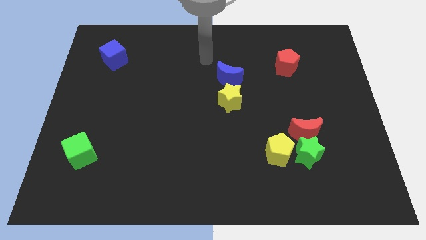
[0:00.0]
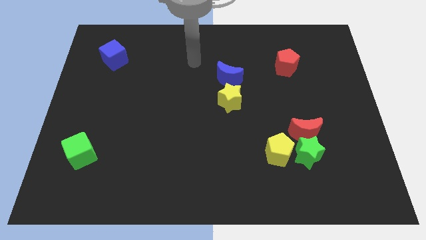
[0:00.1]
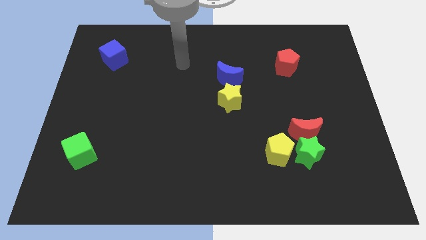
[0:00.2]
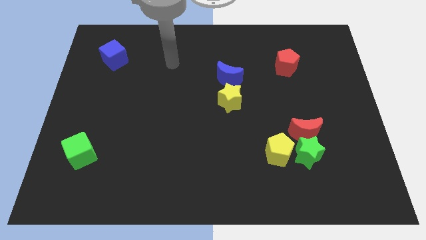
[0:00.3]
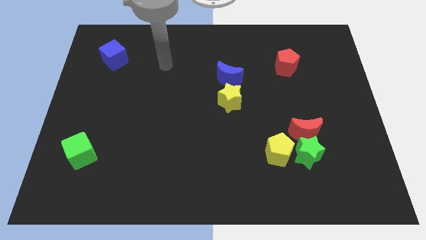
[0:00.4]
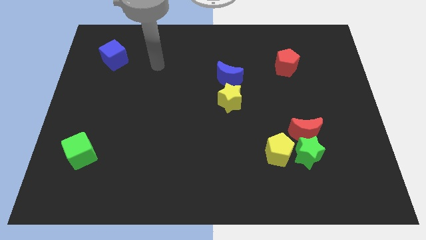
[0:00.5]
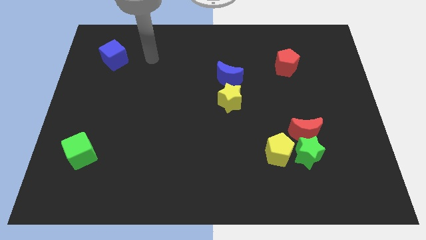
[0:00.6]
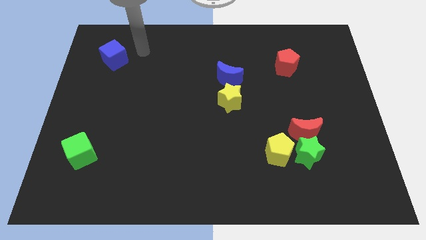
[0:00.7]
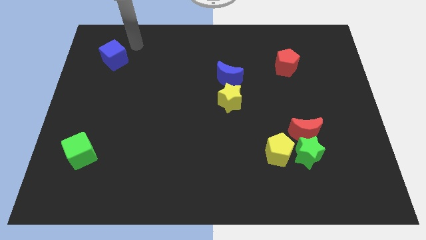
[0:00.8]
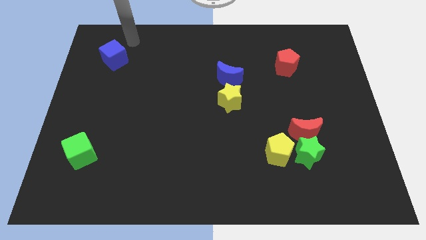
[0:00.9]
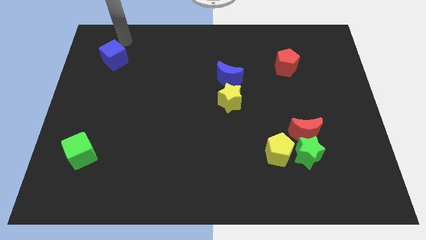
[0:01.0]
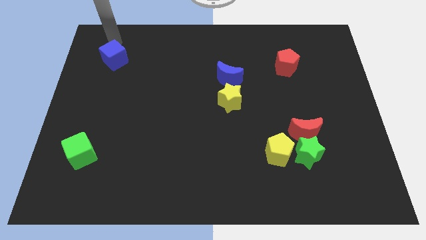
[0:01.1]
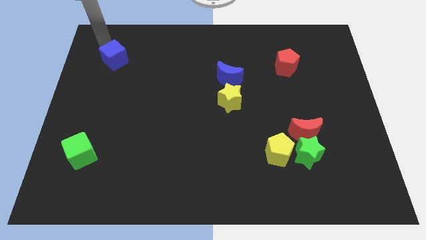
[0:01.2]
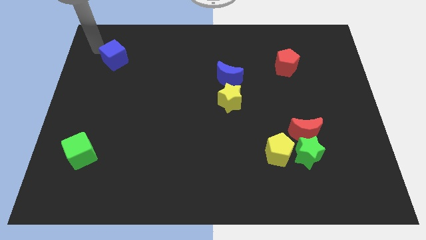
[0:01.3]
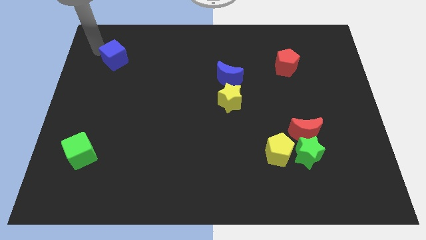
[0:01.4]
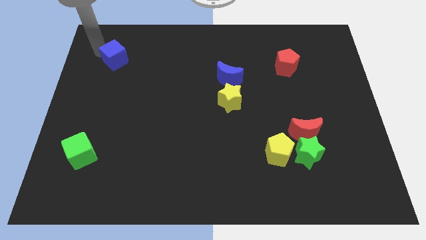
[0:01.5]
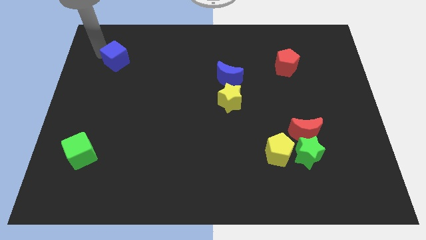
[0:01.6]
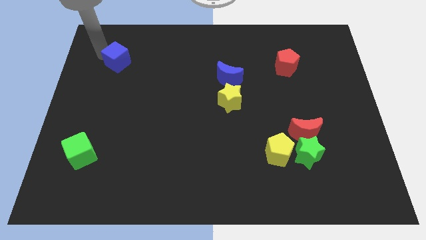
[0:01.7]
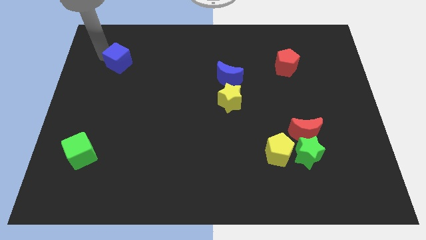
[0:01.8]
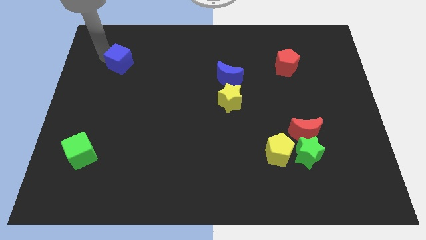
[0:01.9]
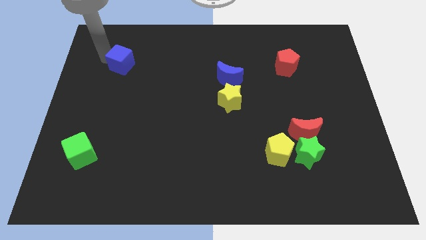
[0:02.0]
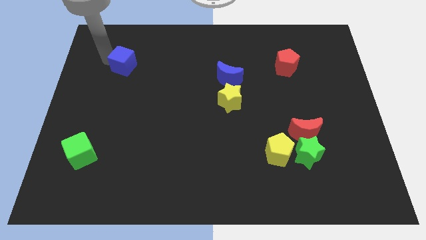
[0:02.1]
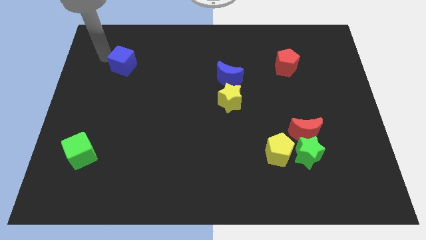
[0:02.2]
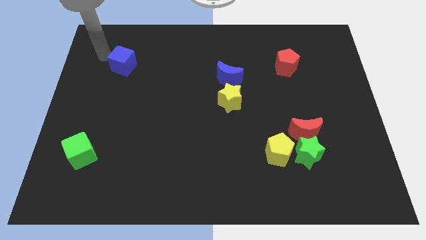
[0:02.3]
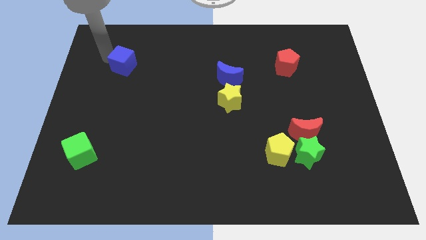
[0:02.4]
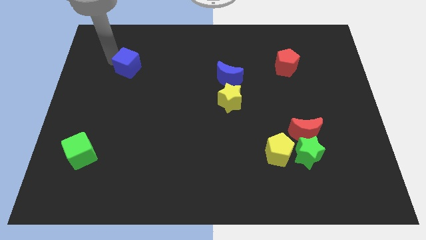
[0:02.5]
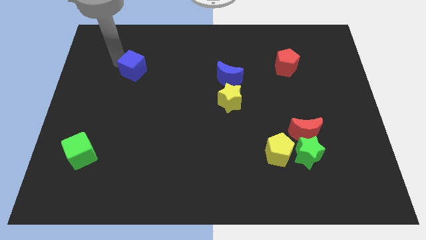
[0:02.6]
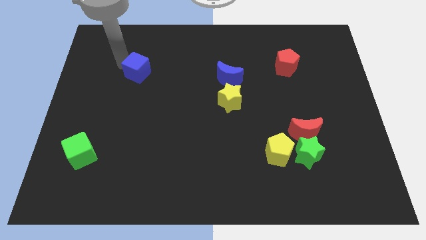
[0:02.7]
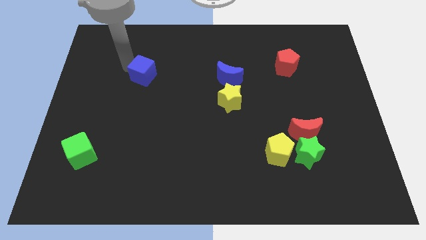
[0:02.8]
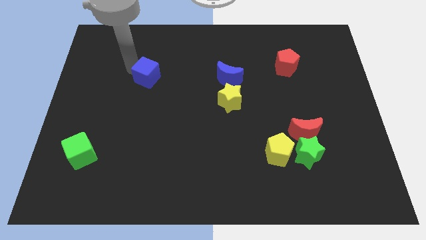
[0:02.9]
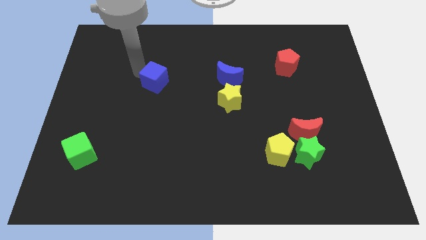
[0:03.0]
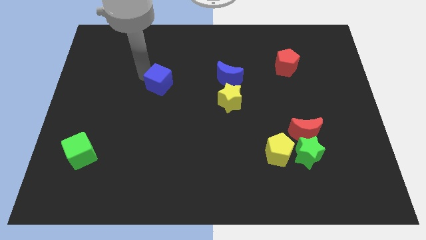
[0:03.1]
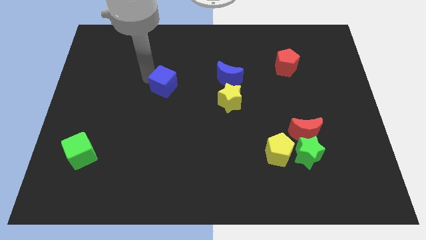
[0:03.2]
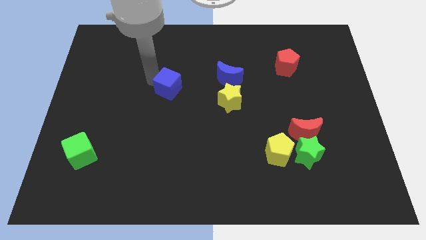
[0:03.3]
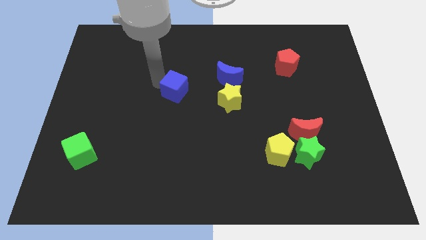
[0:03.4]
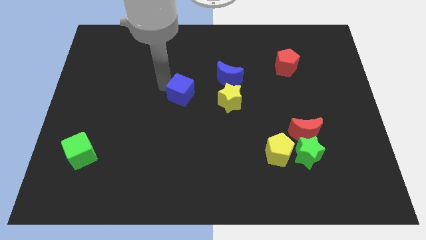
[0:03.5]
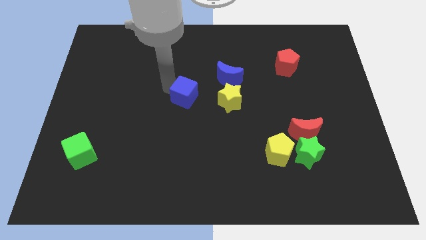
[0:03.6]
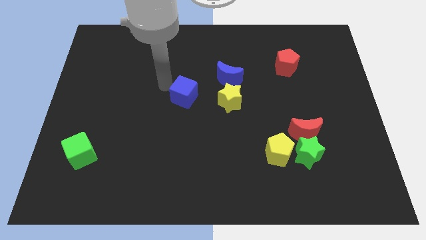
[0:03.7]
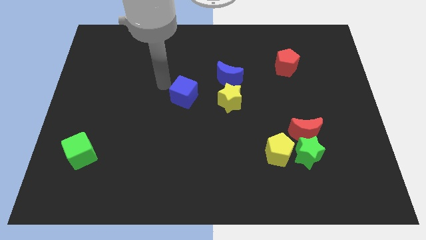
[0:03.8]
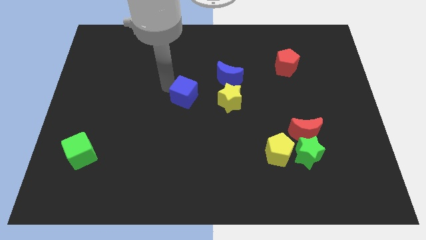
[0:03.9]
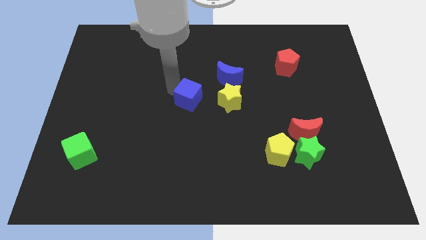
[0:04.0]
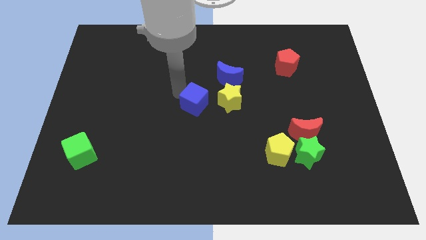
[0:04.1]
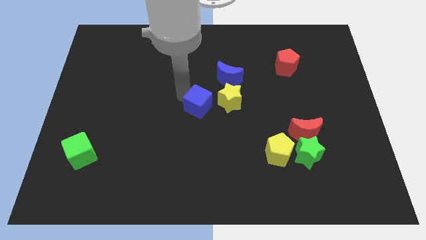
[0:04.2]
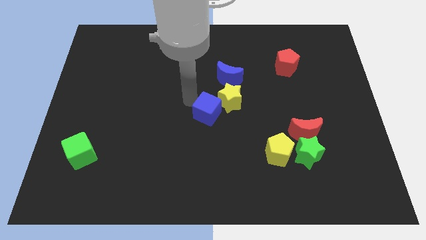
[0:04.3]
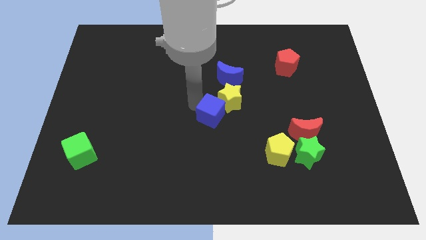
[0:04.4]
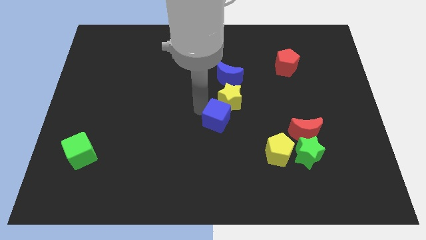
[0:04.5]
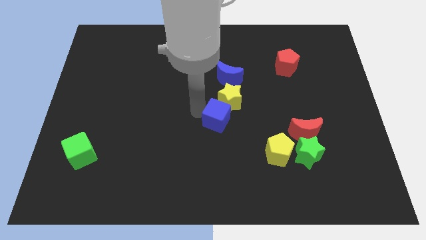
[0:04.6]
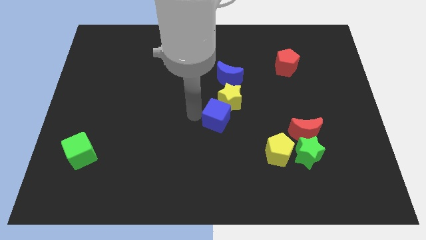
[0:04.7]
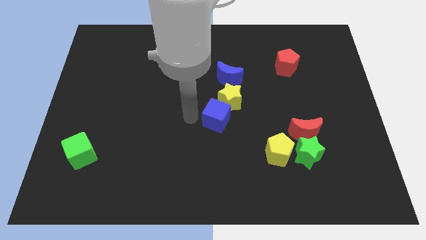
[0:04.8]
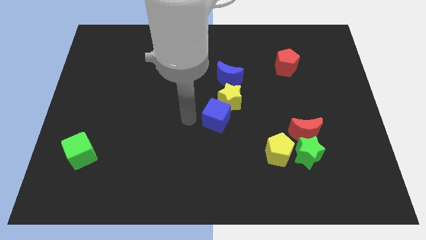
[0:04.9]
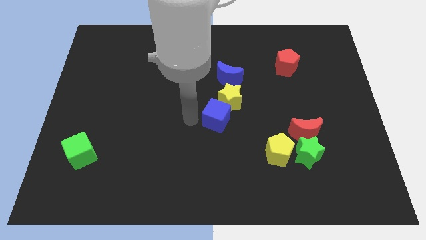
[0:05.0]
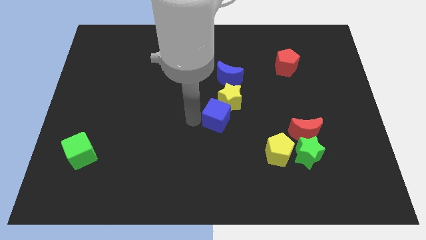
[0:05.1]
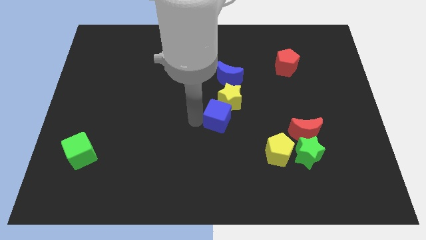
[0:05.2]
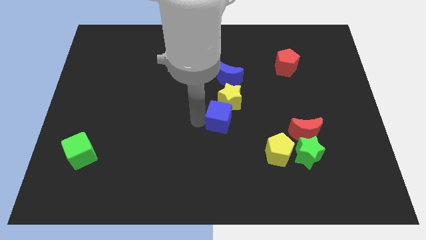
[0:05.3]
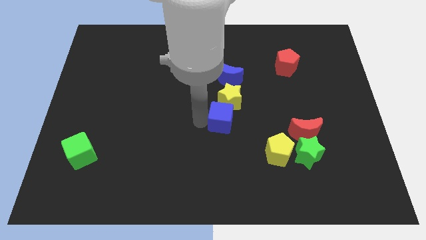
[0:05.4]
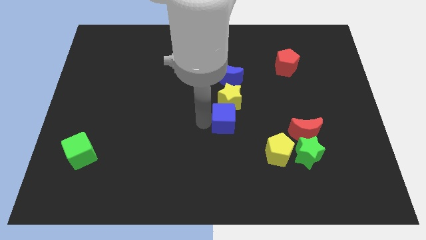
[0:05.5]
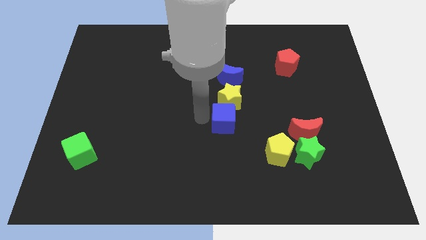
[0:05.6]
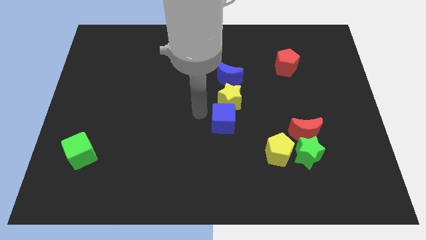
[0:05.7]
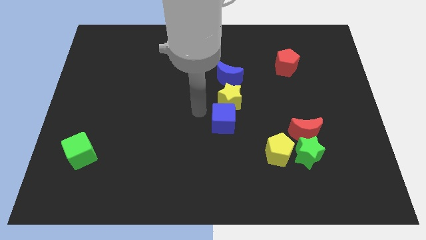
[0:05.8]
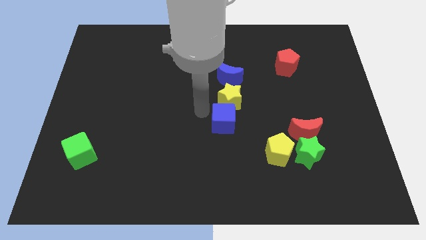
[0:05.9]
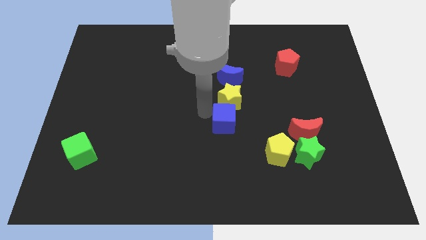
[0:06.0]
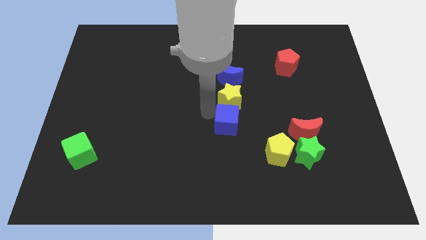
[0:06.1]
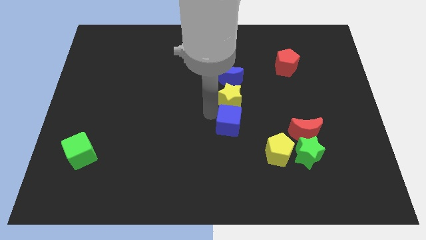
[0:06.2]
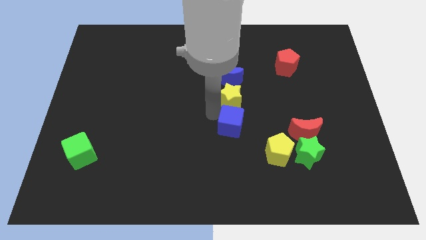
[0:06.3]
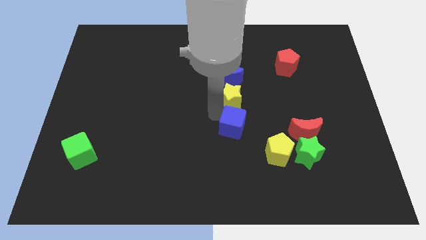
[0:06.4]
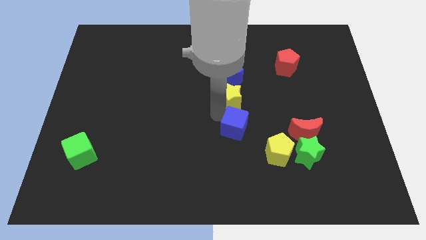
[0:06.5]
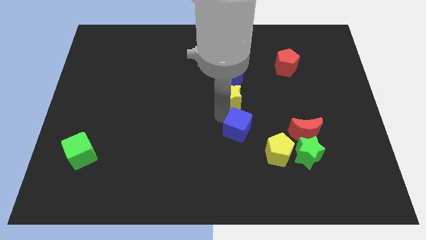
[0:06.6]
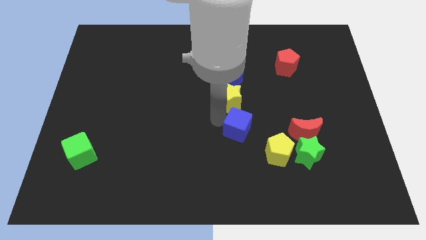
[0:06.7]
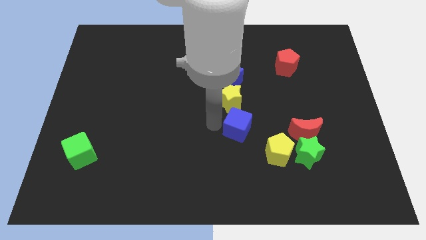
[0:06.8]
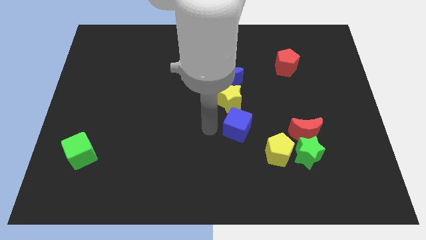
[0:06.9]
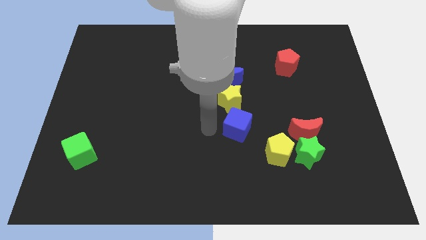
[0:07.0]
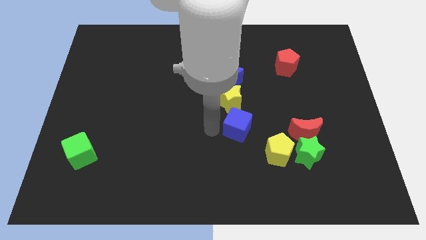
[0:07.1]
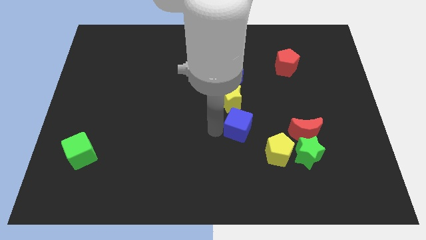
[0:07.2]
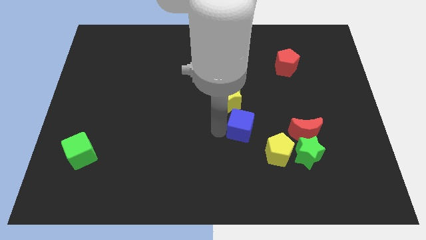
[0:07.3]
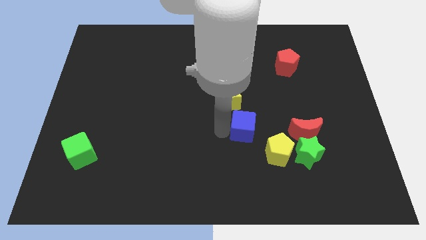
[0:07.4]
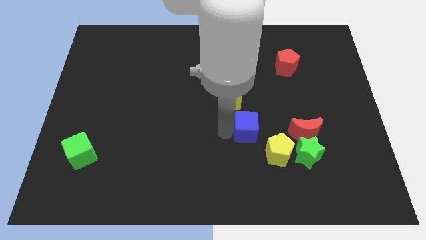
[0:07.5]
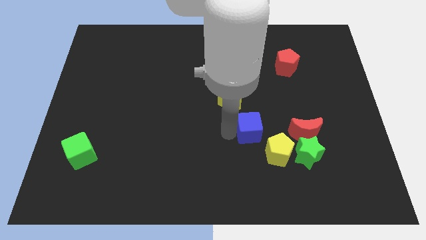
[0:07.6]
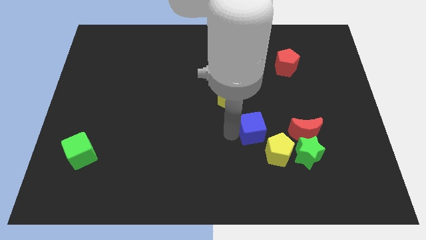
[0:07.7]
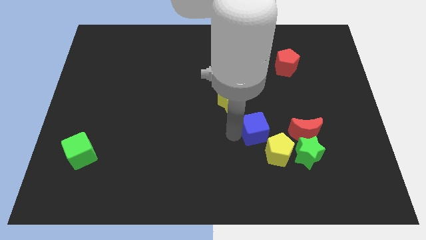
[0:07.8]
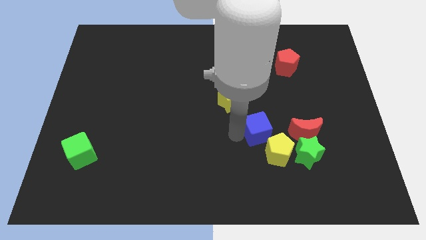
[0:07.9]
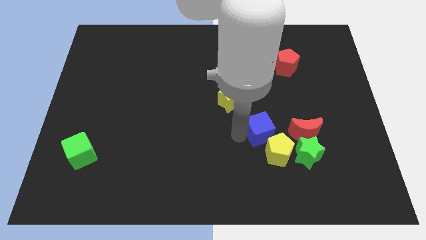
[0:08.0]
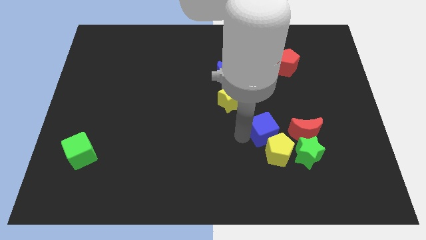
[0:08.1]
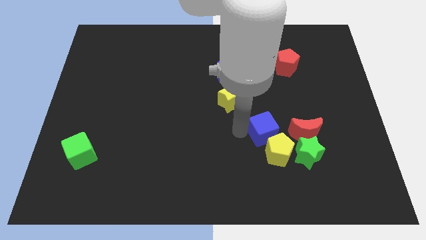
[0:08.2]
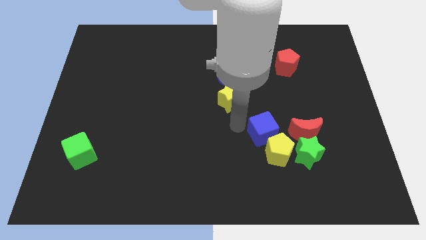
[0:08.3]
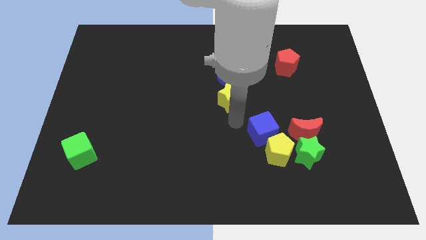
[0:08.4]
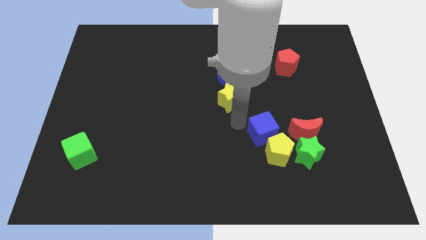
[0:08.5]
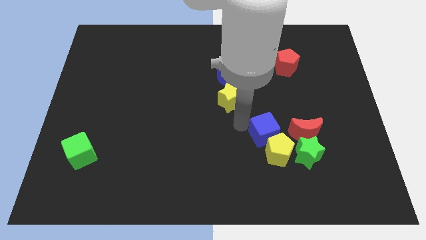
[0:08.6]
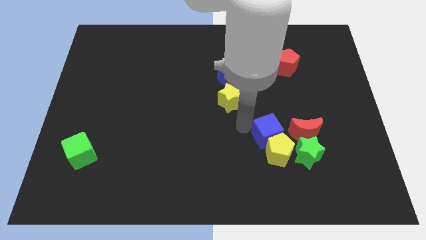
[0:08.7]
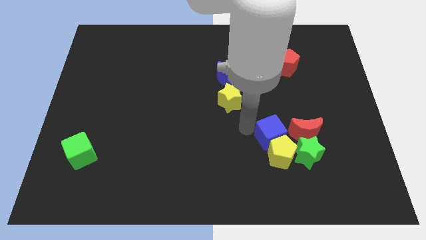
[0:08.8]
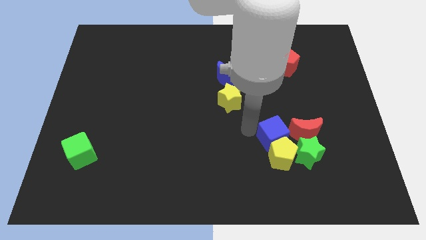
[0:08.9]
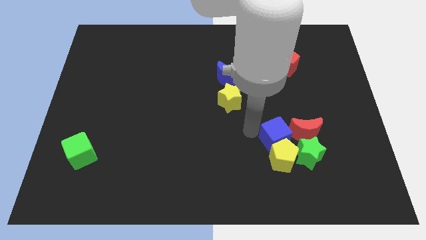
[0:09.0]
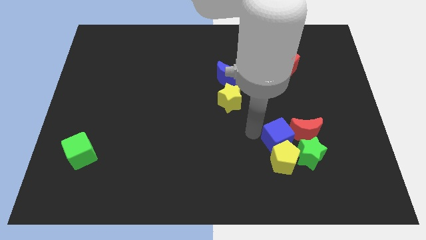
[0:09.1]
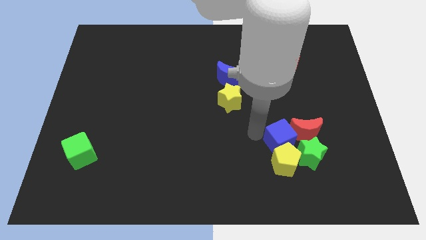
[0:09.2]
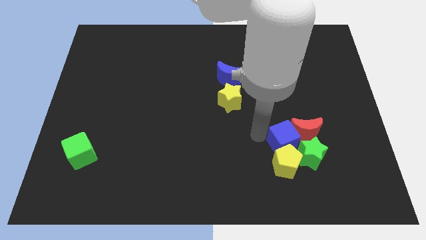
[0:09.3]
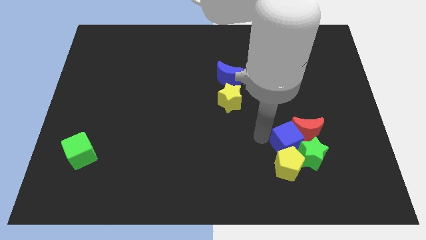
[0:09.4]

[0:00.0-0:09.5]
put the blue cube to the green star
